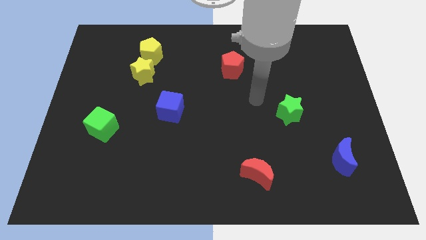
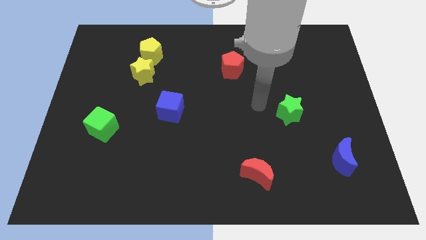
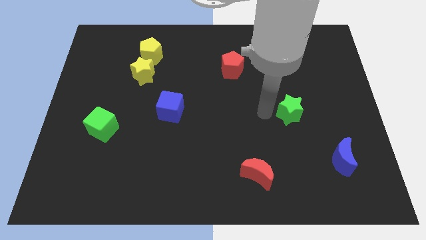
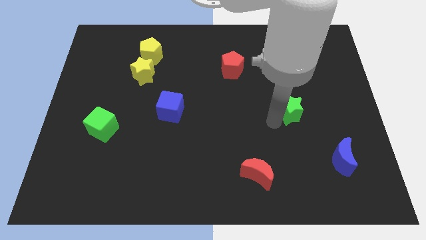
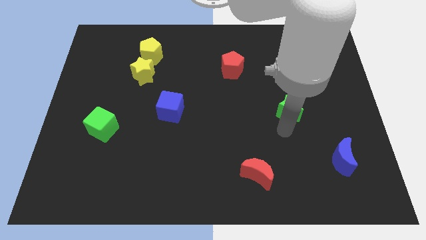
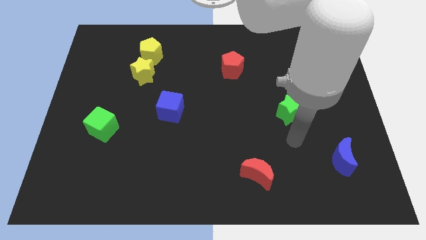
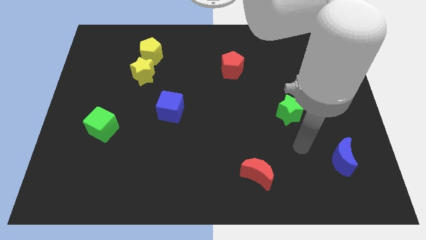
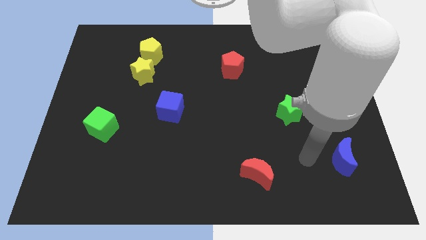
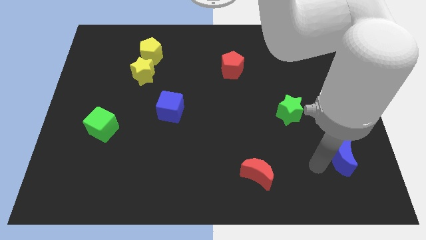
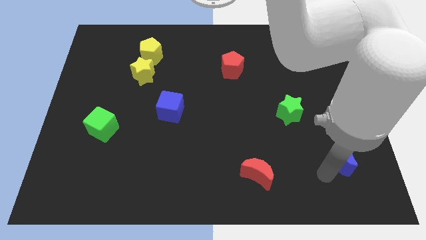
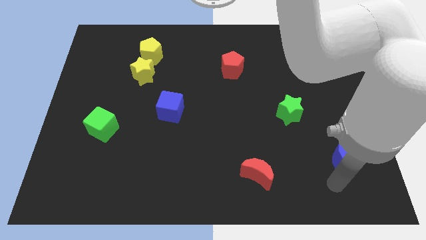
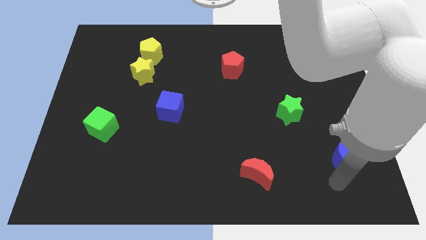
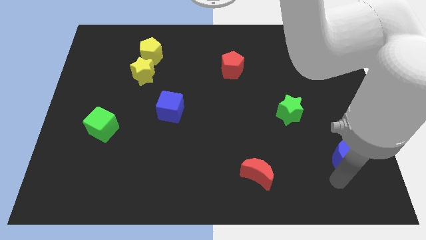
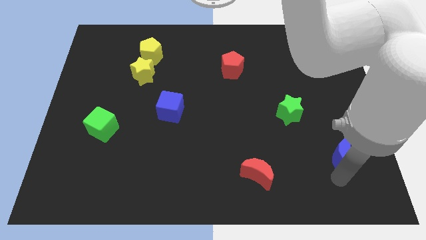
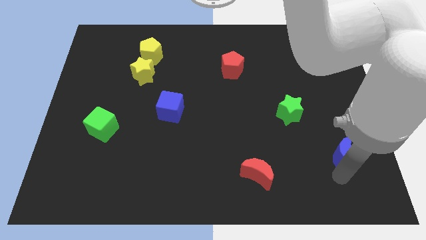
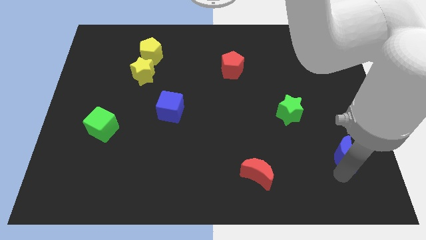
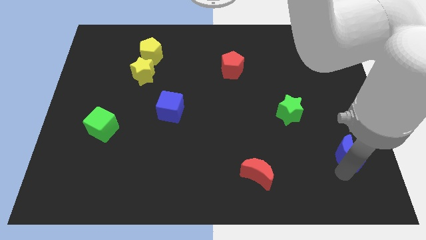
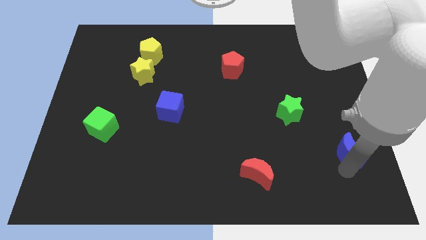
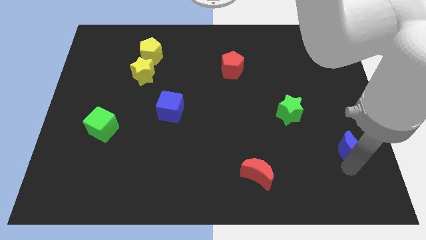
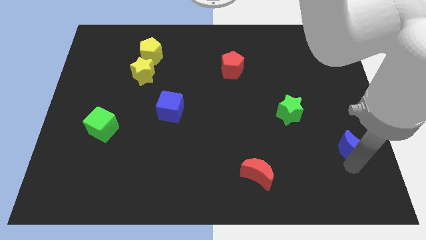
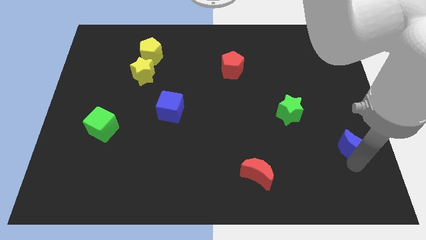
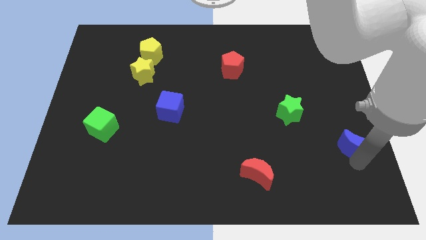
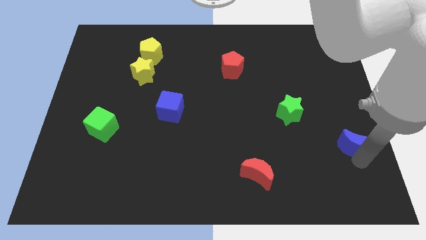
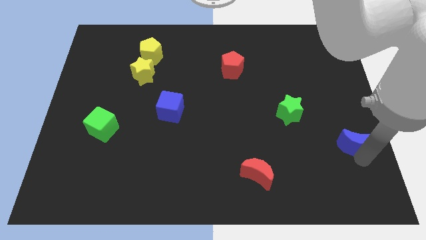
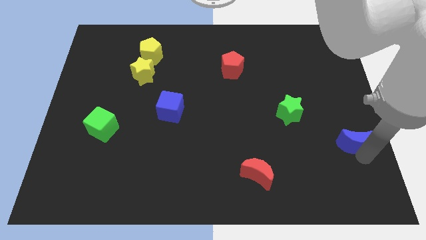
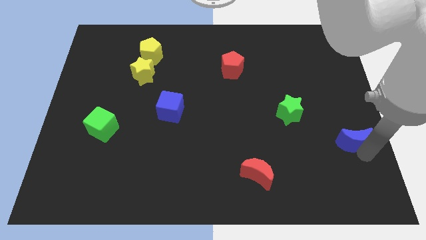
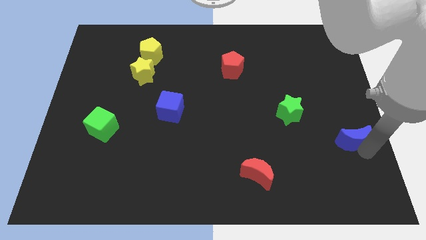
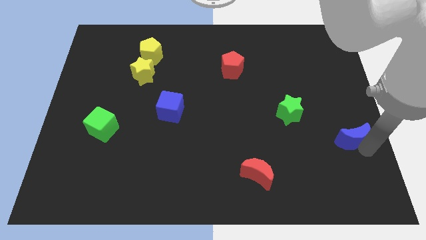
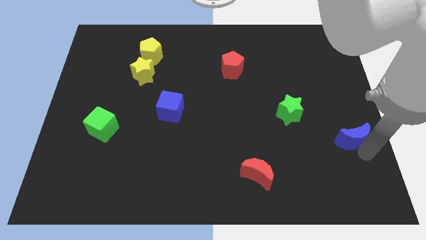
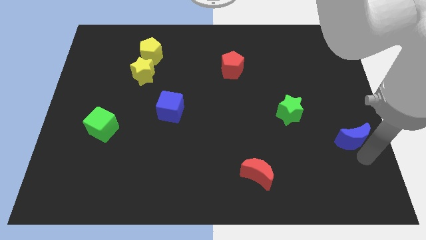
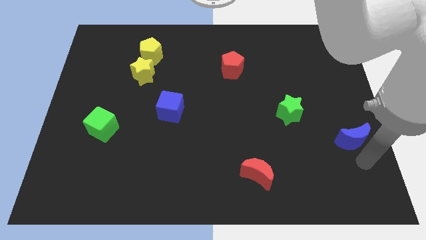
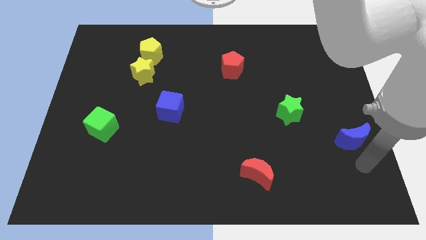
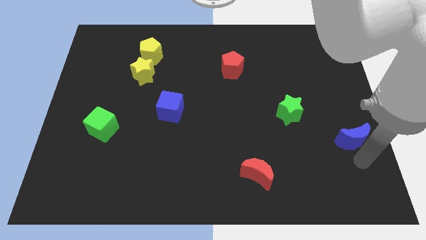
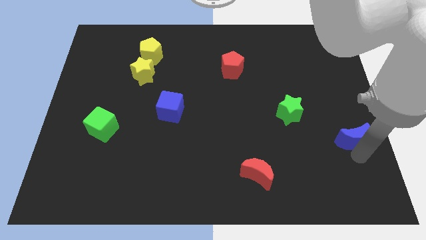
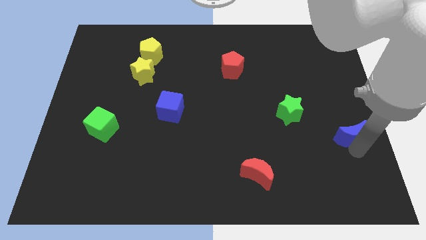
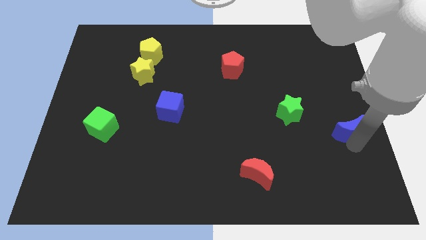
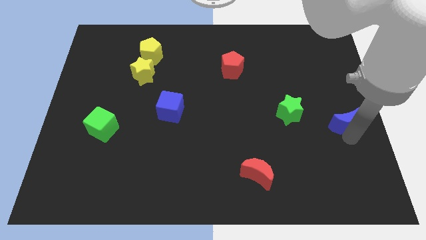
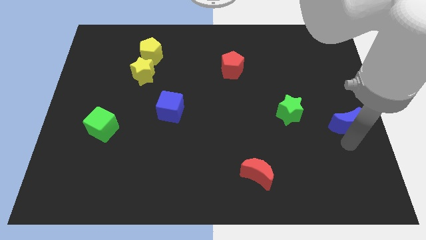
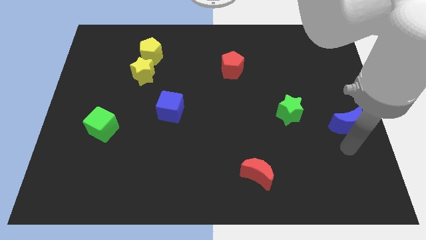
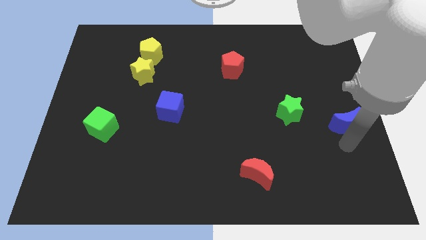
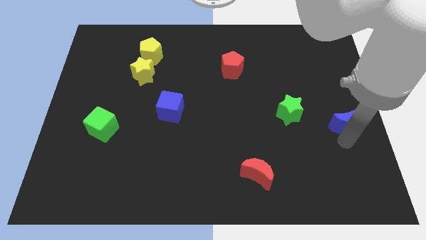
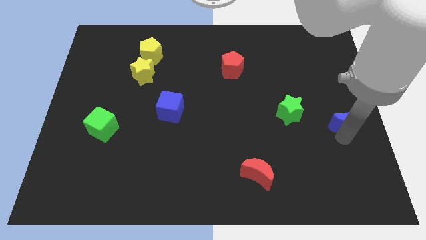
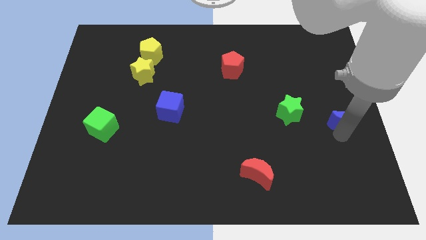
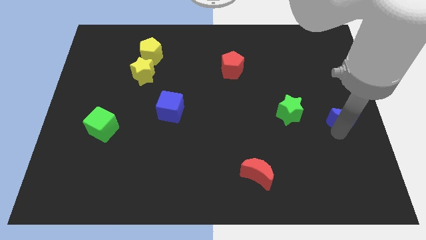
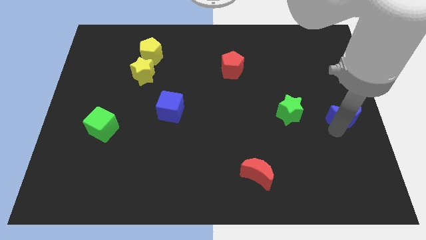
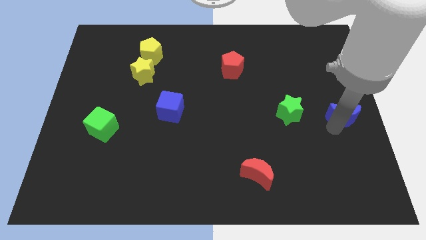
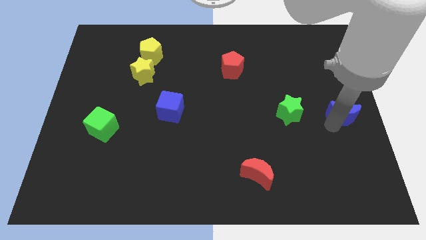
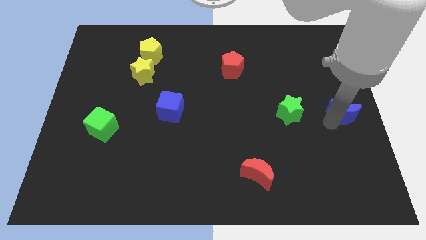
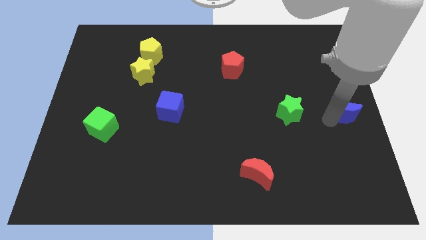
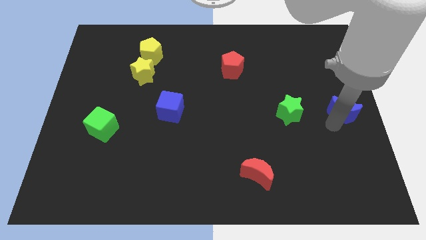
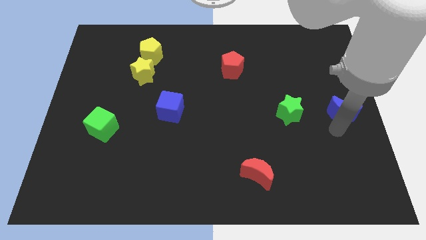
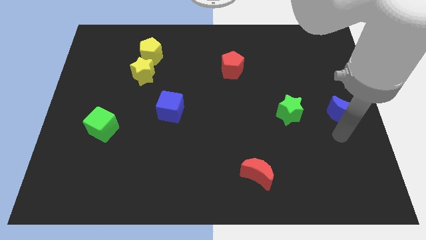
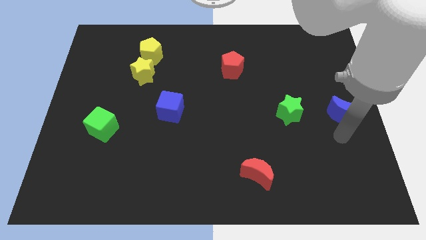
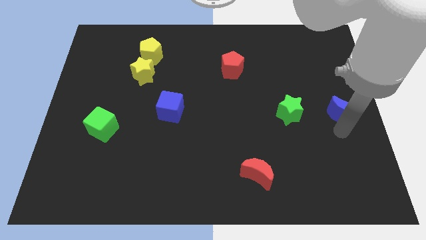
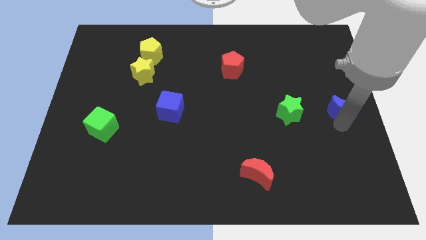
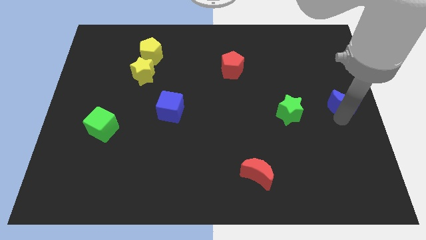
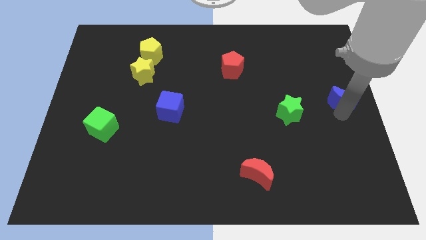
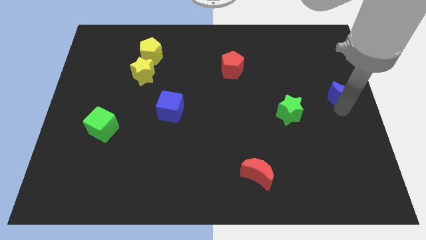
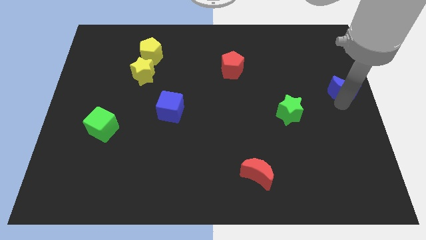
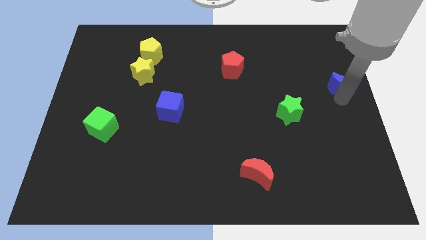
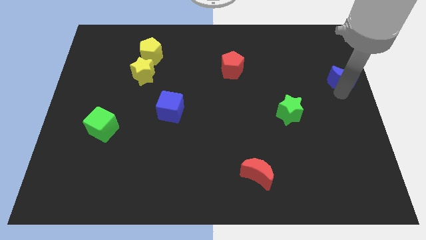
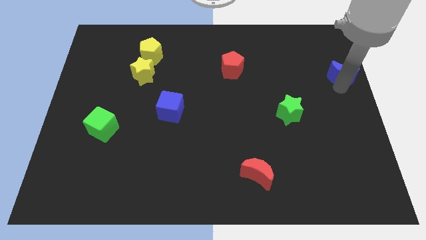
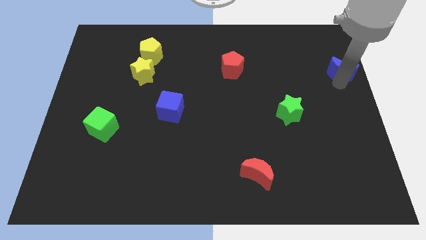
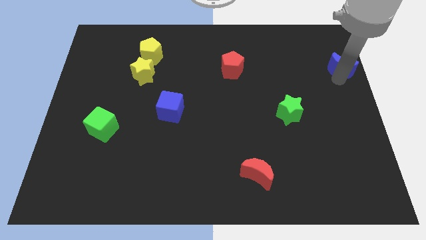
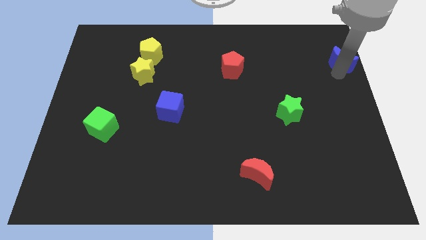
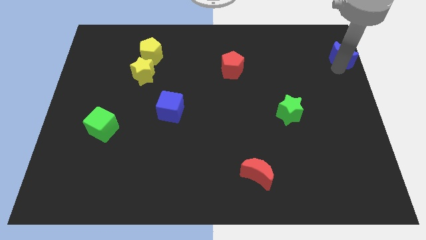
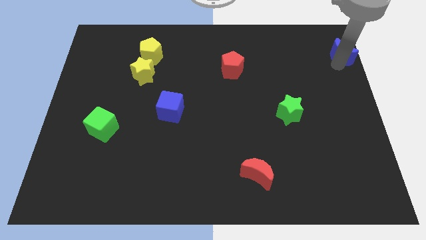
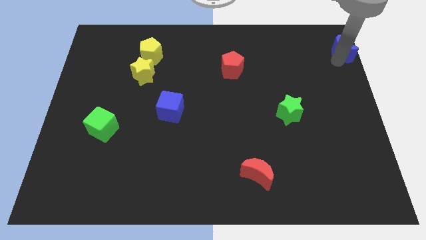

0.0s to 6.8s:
slide the blue moon to the top right corner
